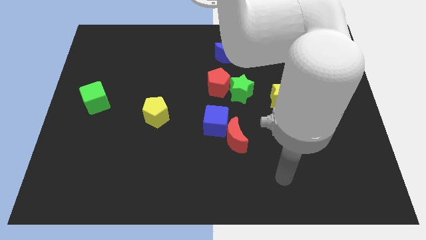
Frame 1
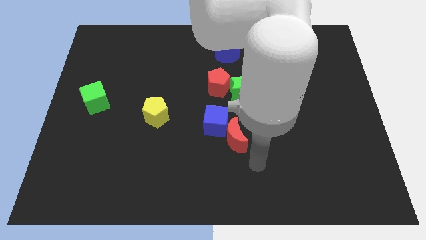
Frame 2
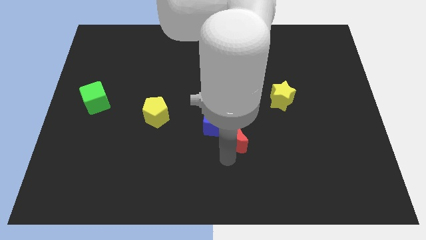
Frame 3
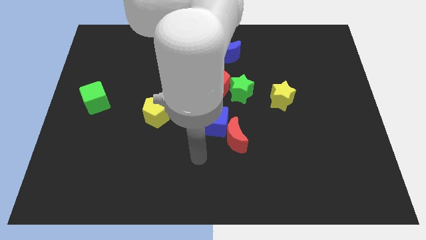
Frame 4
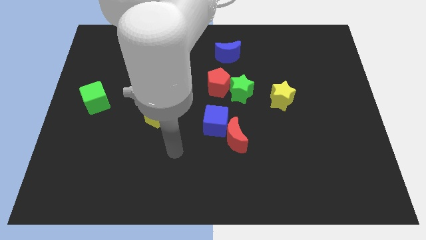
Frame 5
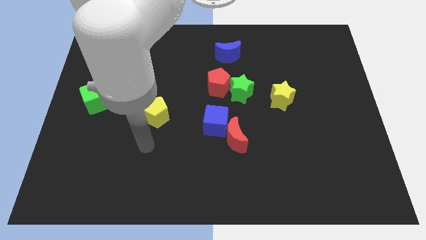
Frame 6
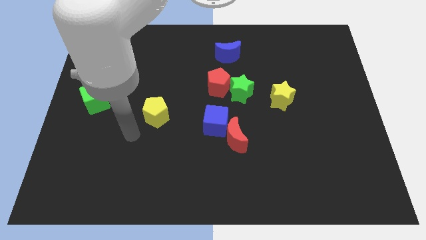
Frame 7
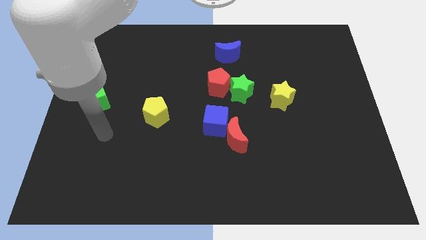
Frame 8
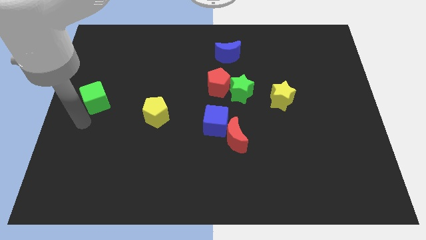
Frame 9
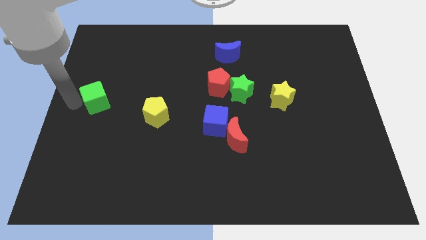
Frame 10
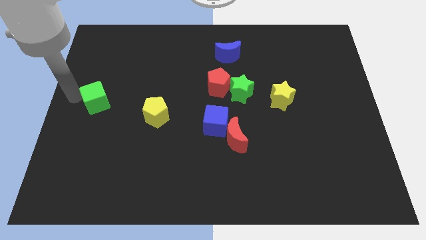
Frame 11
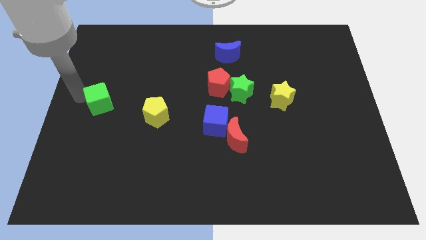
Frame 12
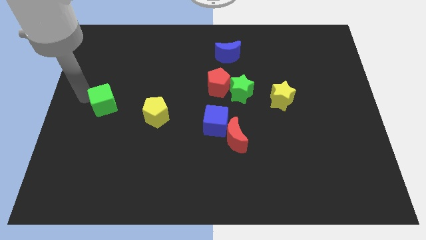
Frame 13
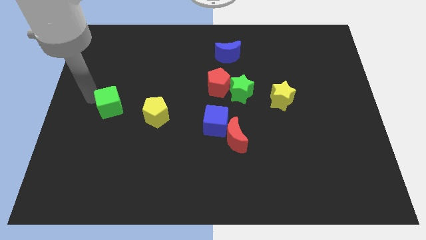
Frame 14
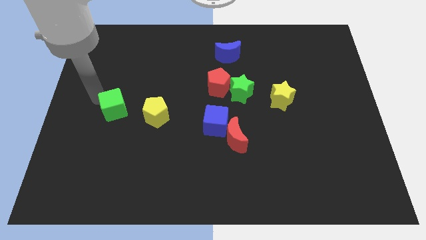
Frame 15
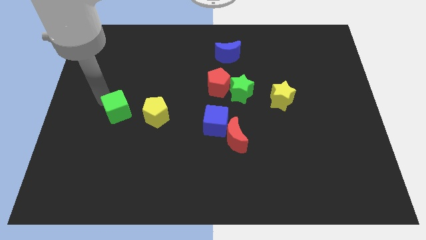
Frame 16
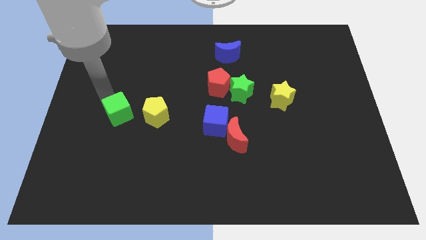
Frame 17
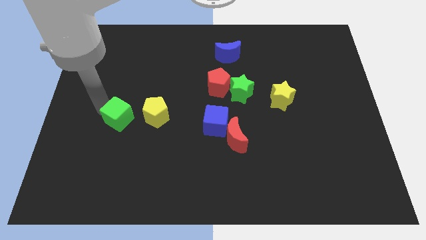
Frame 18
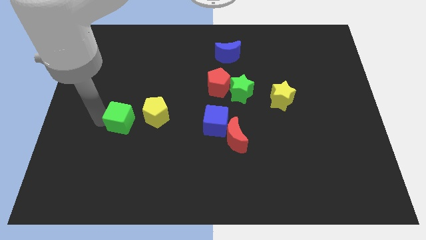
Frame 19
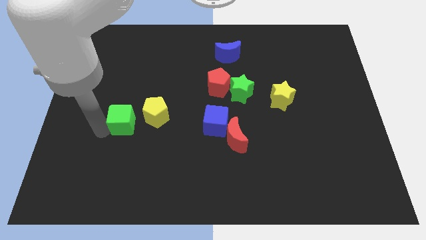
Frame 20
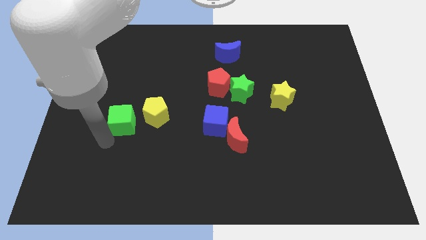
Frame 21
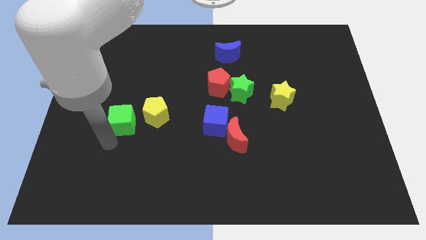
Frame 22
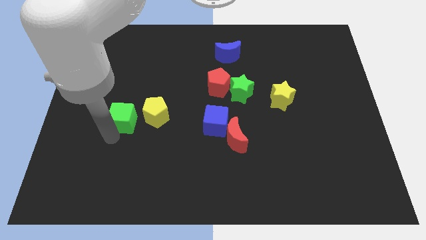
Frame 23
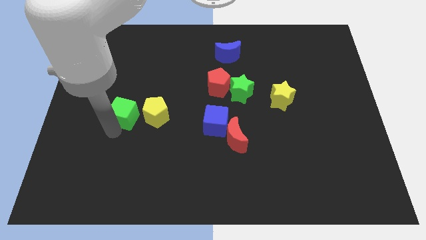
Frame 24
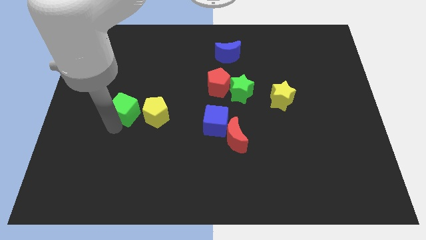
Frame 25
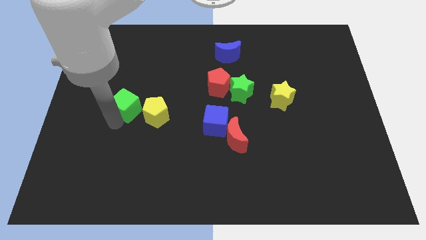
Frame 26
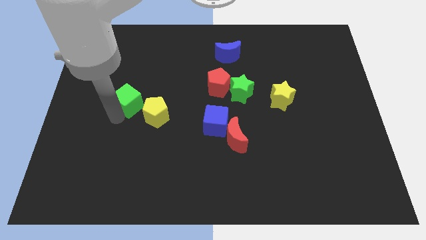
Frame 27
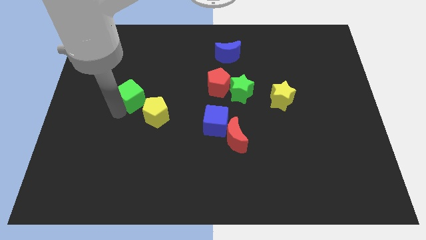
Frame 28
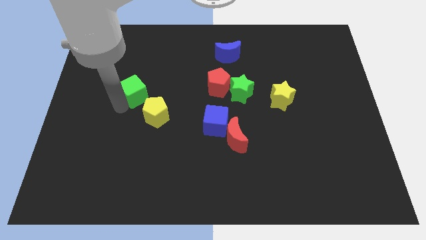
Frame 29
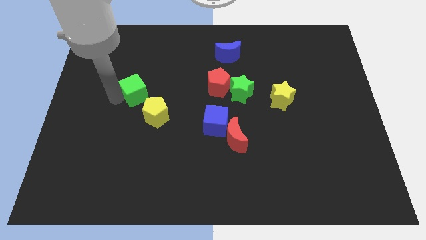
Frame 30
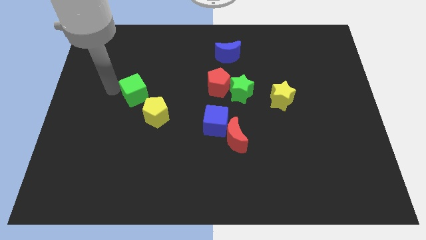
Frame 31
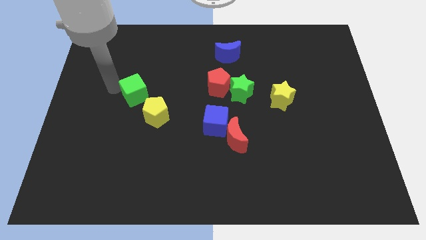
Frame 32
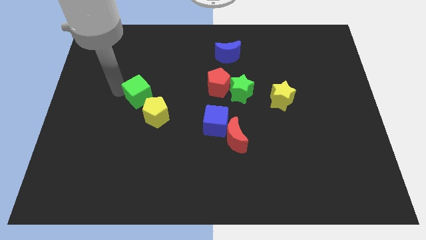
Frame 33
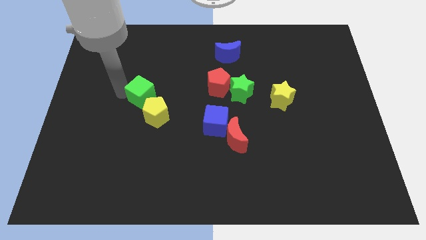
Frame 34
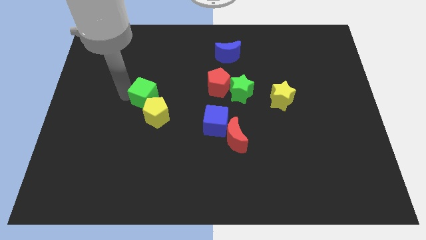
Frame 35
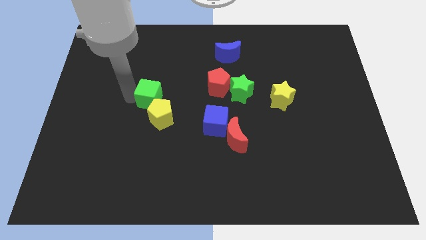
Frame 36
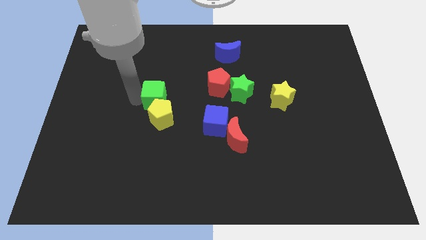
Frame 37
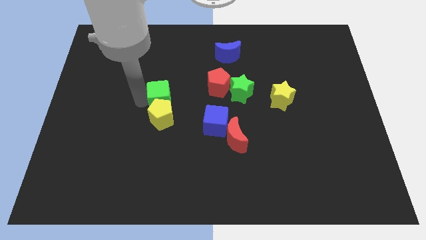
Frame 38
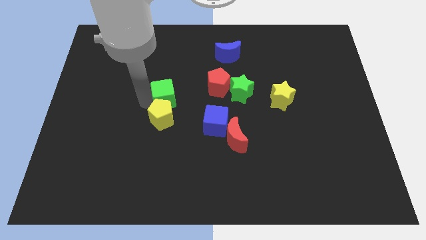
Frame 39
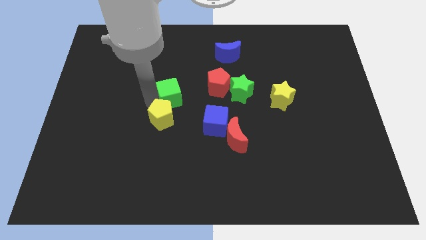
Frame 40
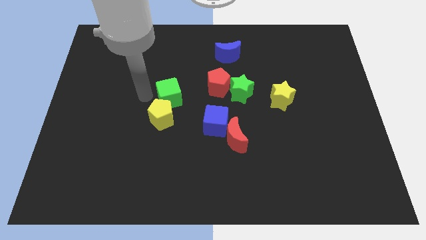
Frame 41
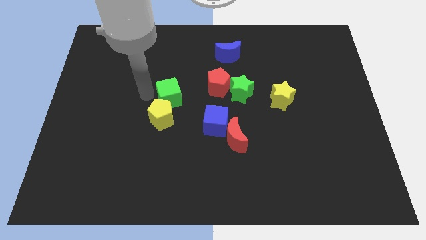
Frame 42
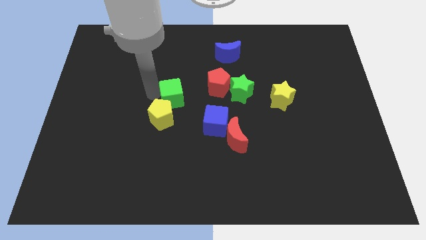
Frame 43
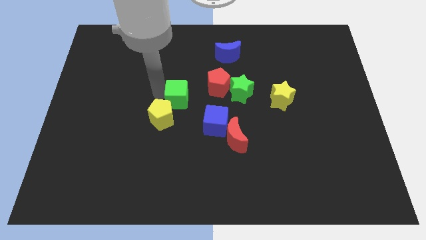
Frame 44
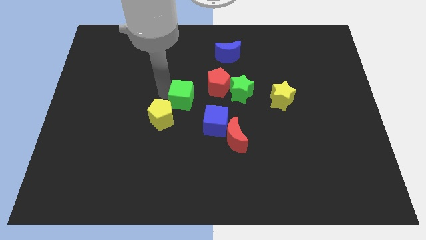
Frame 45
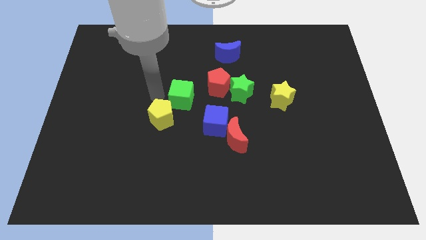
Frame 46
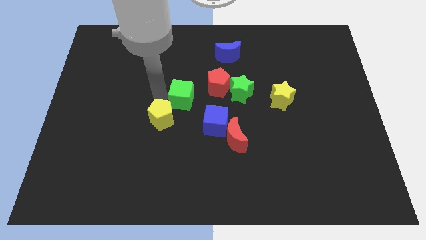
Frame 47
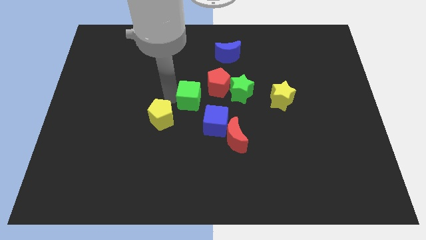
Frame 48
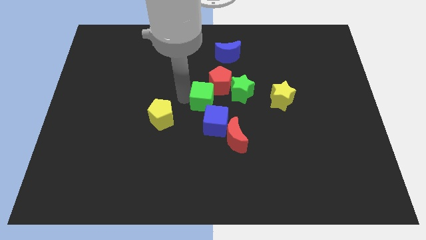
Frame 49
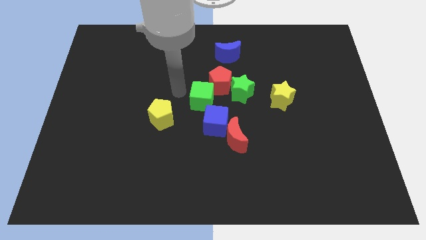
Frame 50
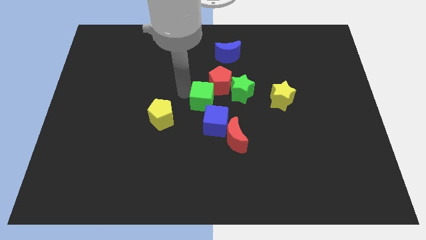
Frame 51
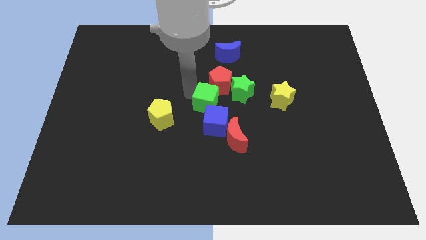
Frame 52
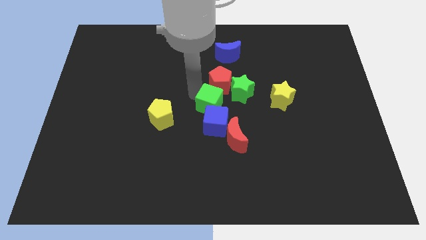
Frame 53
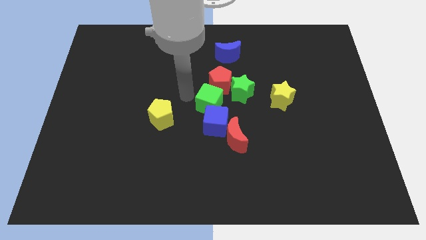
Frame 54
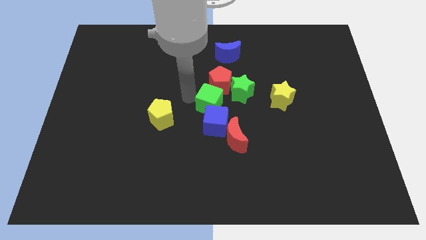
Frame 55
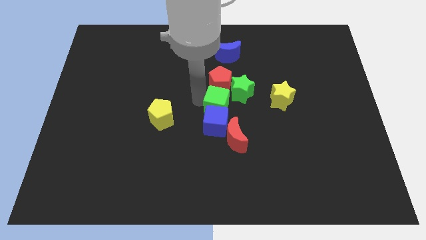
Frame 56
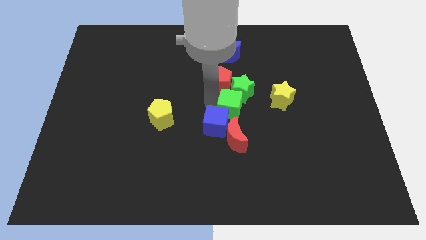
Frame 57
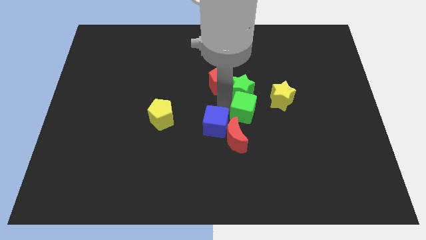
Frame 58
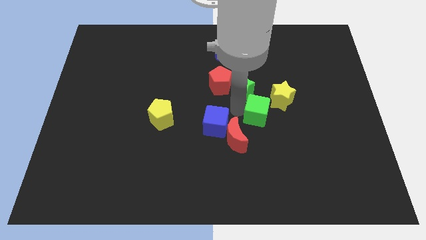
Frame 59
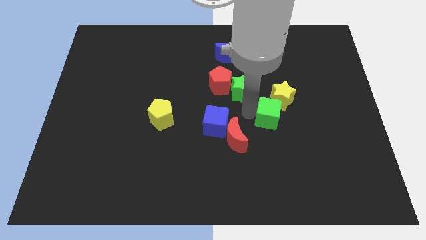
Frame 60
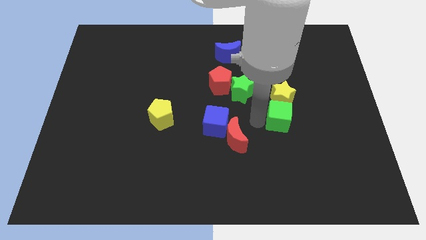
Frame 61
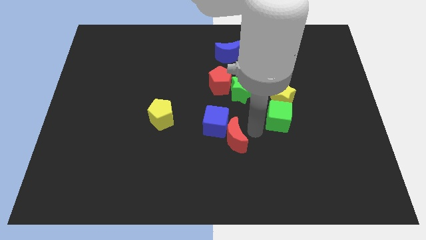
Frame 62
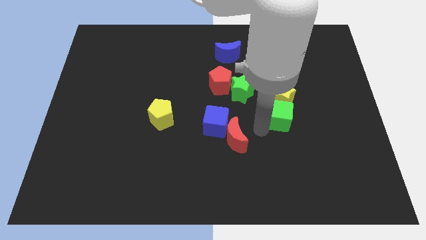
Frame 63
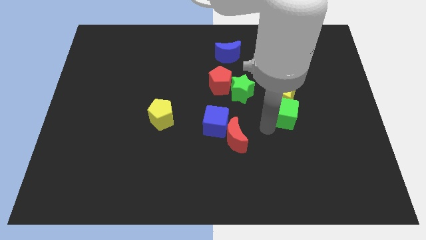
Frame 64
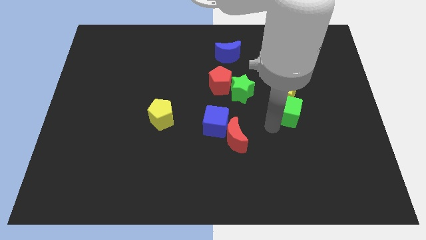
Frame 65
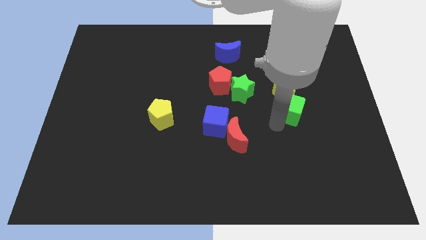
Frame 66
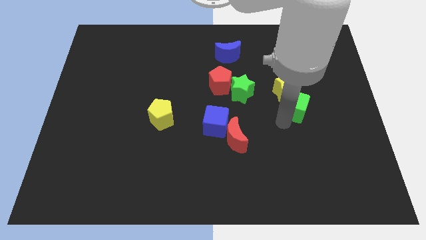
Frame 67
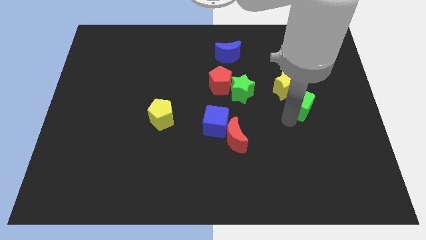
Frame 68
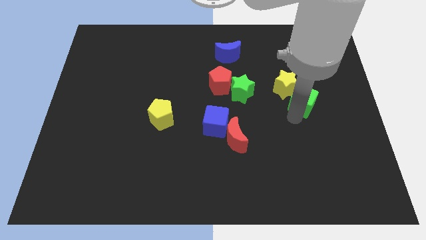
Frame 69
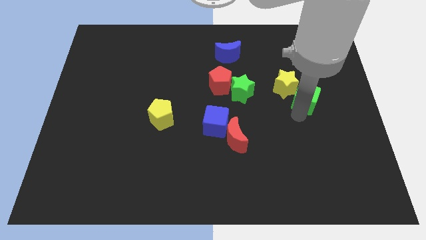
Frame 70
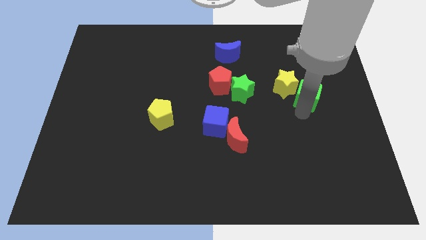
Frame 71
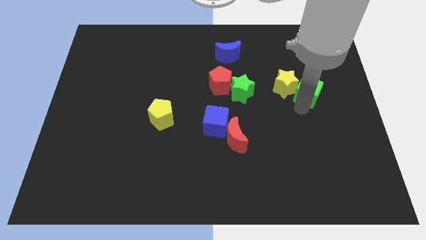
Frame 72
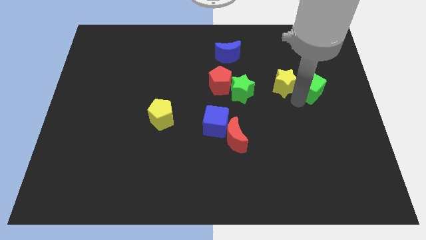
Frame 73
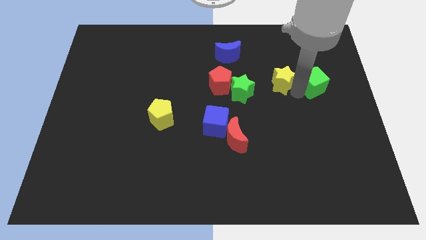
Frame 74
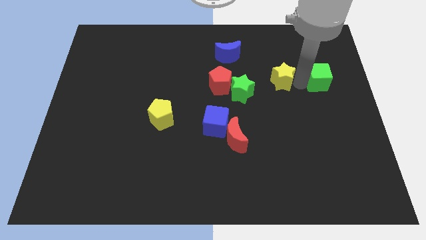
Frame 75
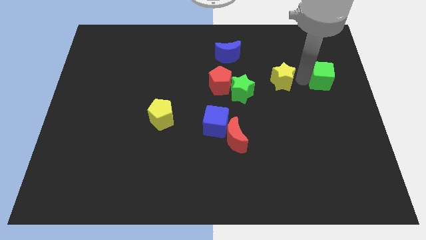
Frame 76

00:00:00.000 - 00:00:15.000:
push the green cube to the right side of the board
